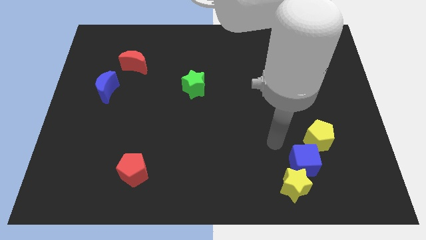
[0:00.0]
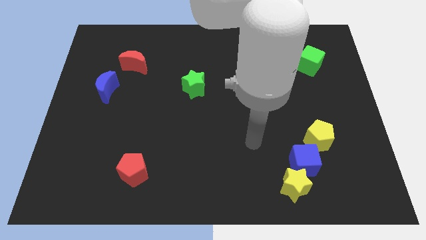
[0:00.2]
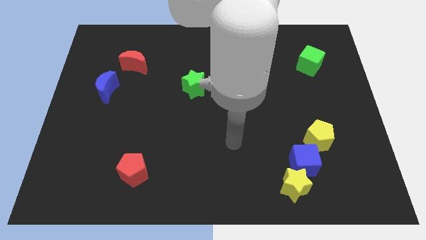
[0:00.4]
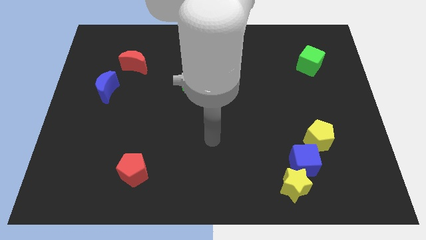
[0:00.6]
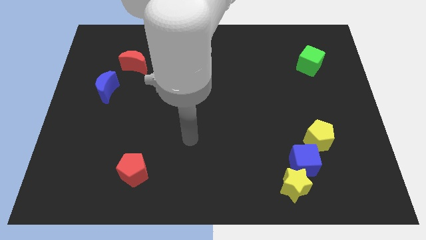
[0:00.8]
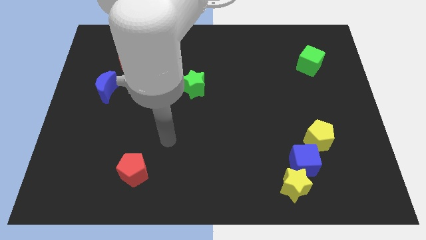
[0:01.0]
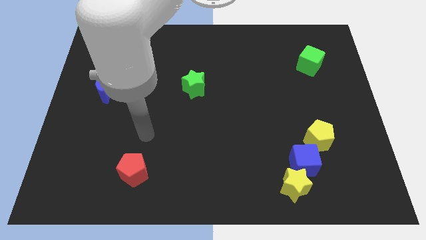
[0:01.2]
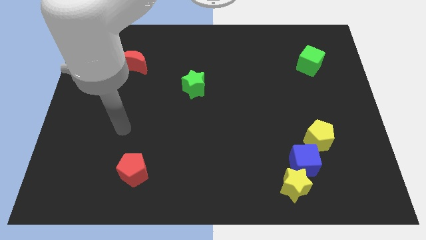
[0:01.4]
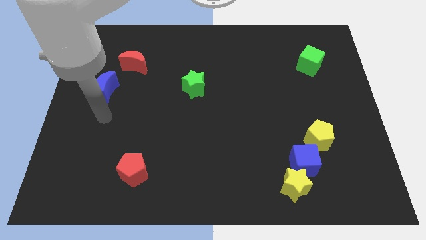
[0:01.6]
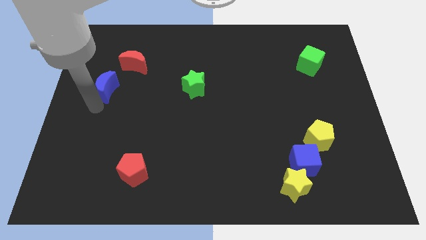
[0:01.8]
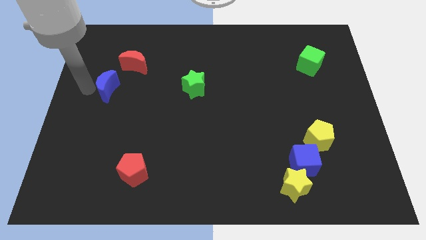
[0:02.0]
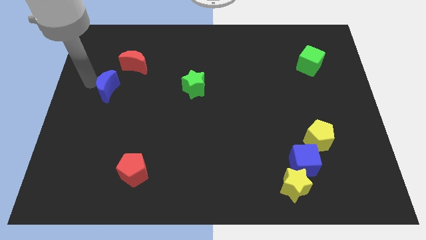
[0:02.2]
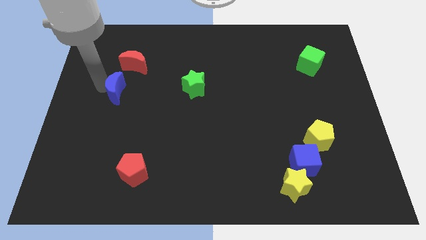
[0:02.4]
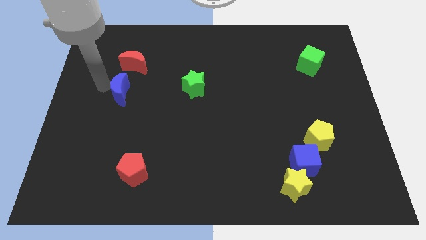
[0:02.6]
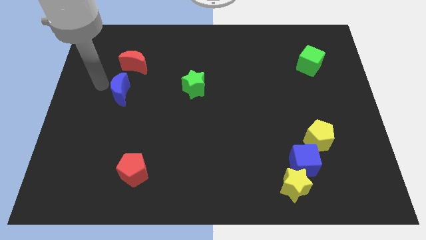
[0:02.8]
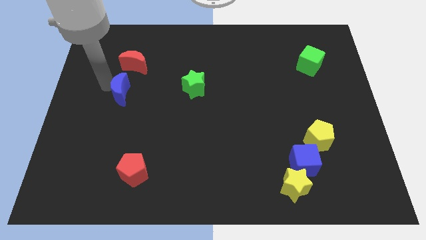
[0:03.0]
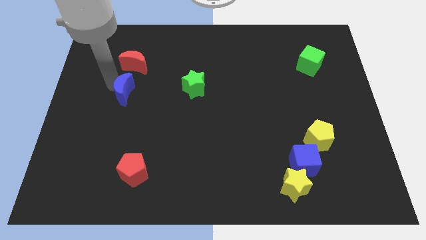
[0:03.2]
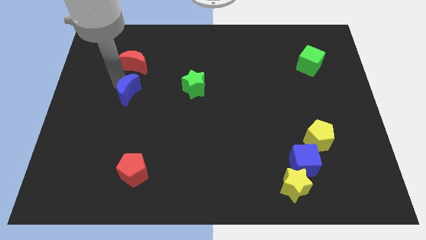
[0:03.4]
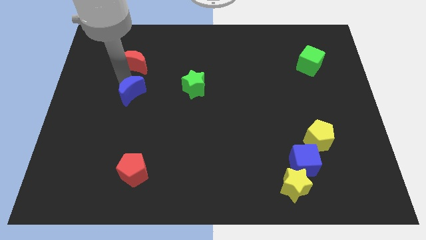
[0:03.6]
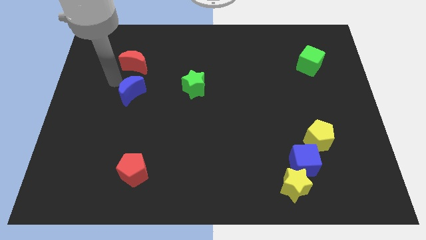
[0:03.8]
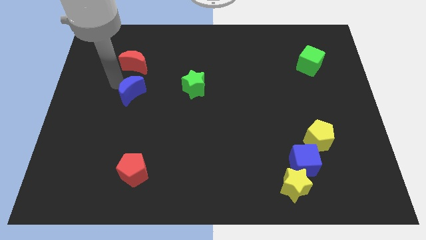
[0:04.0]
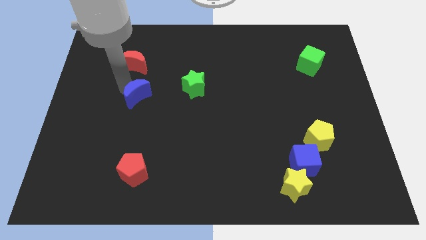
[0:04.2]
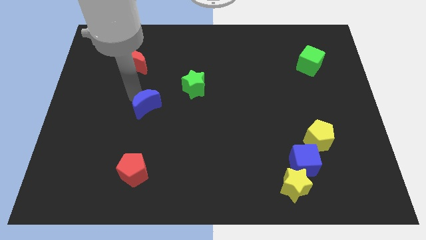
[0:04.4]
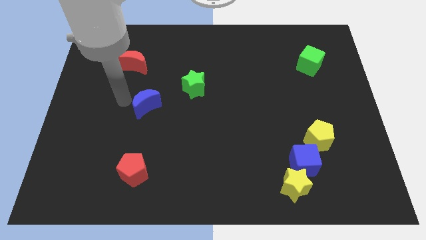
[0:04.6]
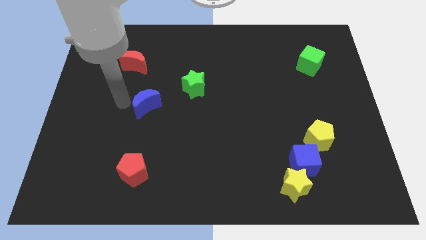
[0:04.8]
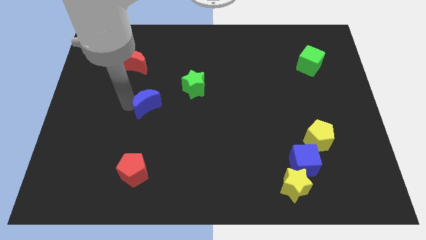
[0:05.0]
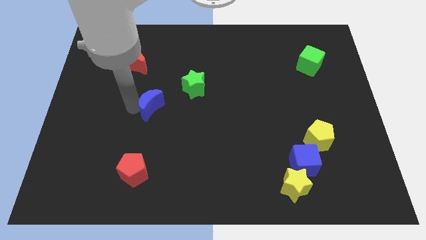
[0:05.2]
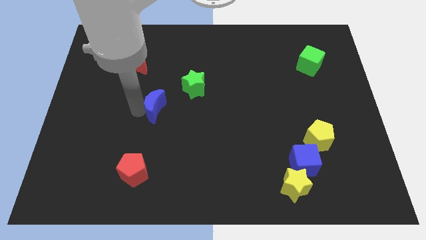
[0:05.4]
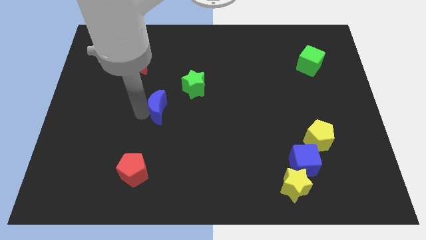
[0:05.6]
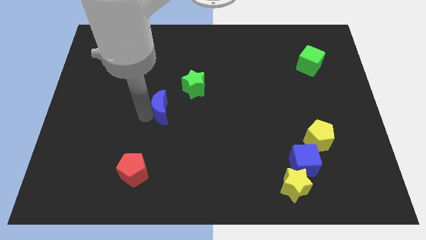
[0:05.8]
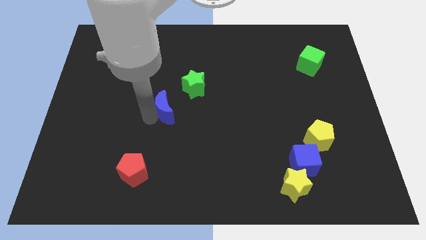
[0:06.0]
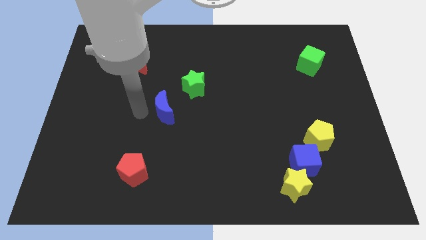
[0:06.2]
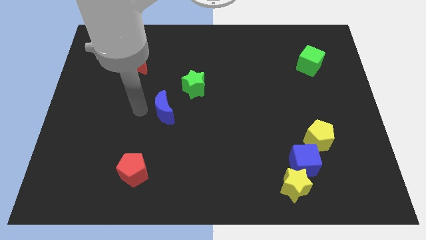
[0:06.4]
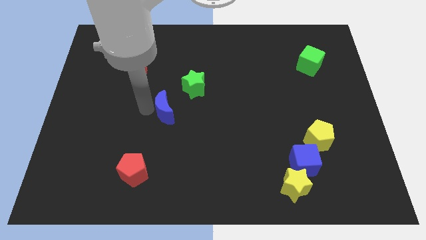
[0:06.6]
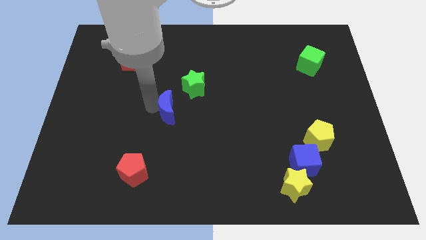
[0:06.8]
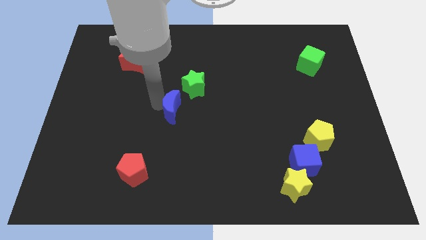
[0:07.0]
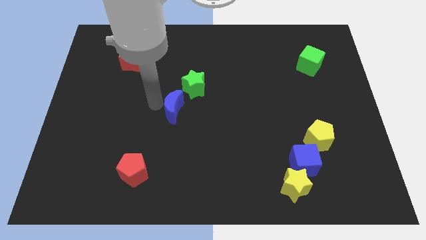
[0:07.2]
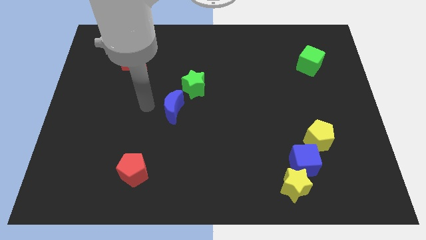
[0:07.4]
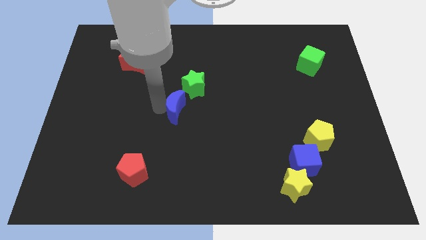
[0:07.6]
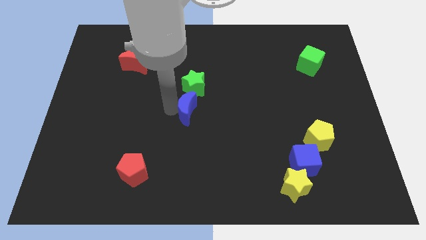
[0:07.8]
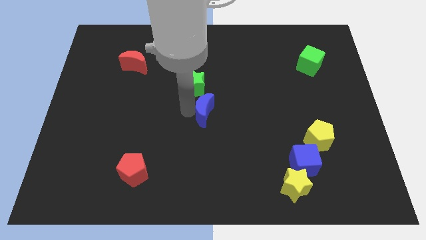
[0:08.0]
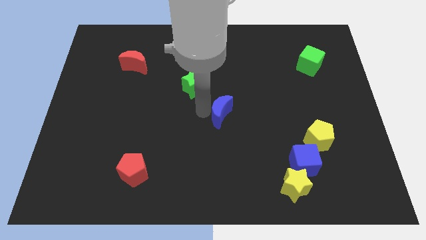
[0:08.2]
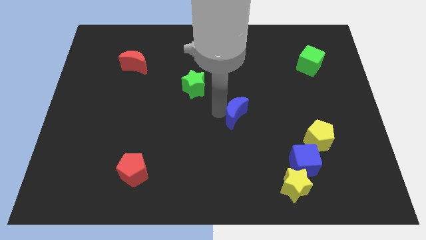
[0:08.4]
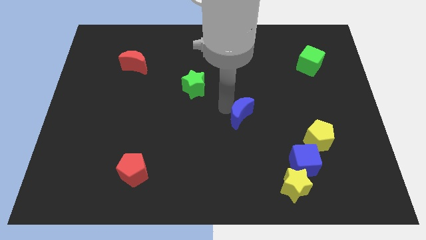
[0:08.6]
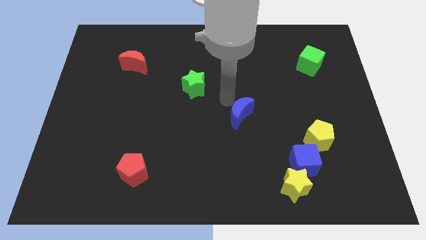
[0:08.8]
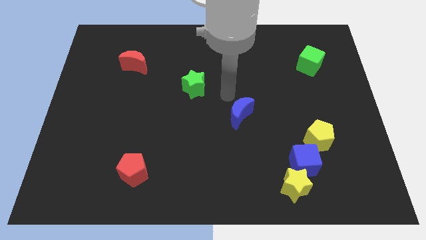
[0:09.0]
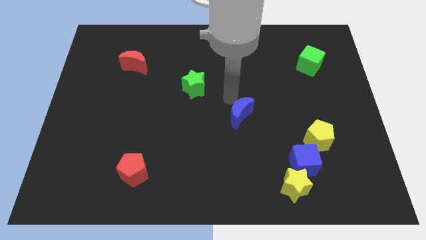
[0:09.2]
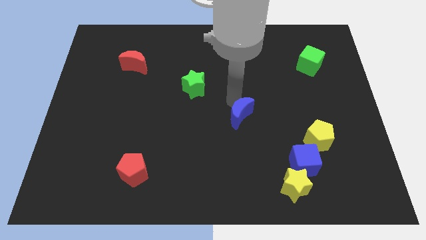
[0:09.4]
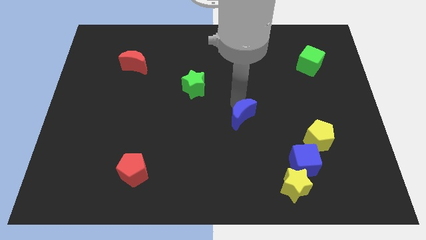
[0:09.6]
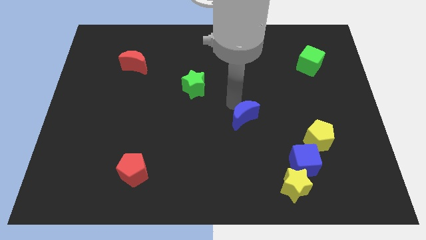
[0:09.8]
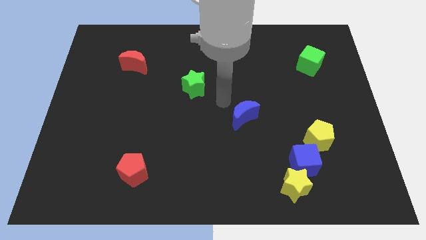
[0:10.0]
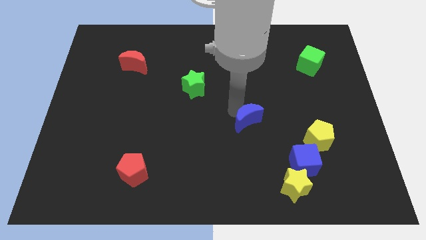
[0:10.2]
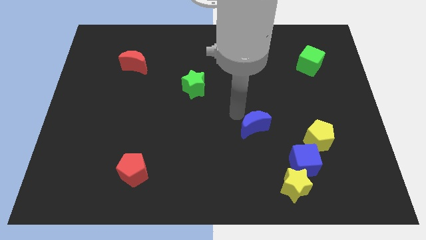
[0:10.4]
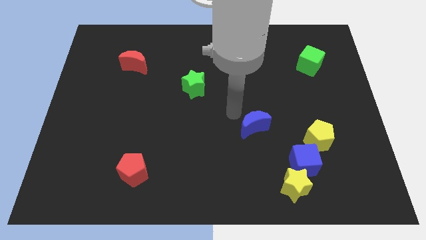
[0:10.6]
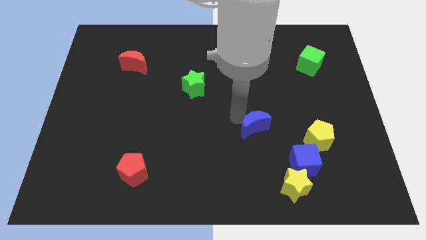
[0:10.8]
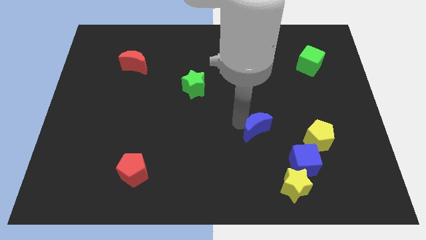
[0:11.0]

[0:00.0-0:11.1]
put the blue moon to the top left side of the blue cube

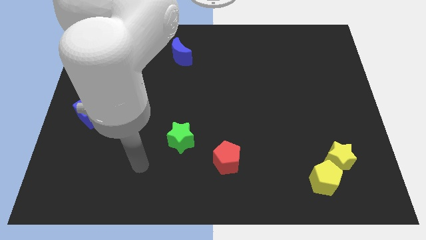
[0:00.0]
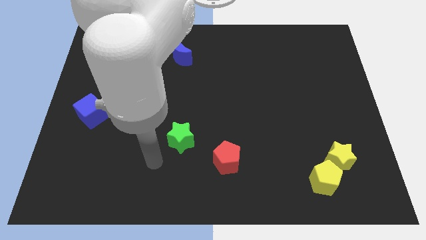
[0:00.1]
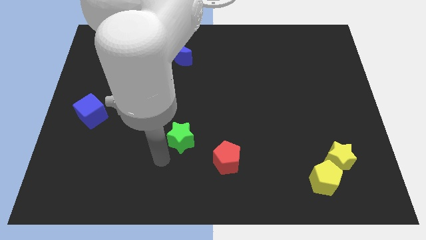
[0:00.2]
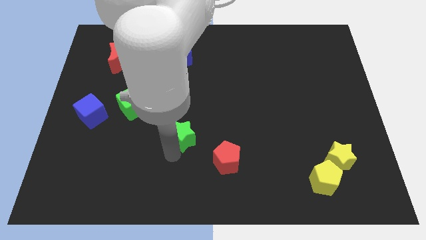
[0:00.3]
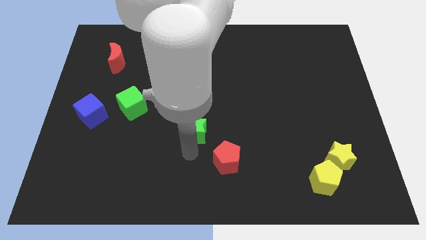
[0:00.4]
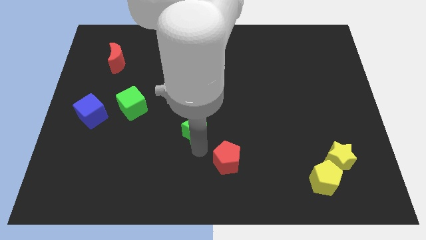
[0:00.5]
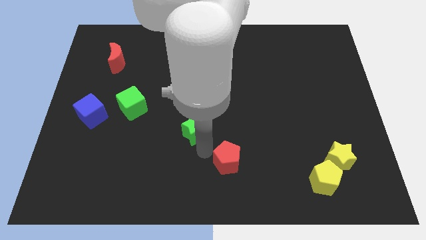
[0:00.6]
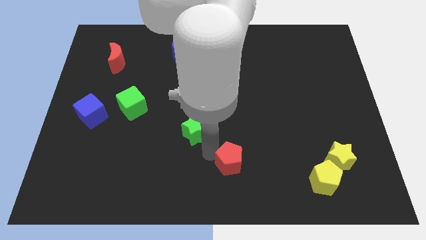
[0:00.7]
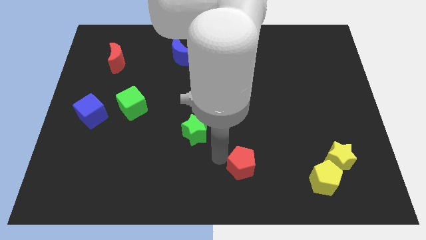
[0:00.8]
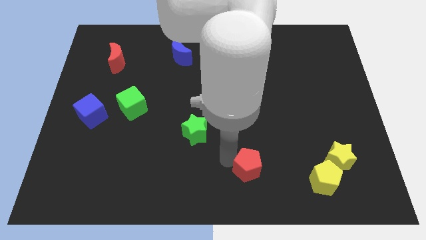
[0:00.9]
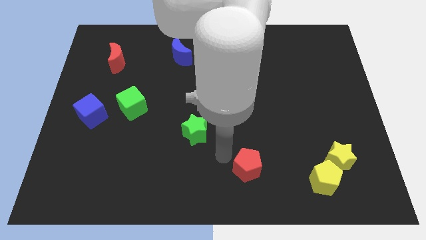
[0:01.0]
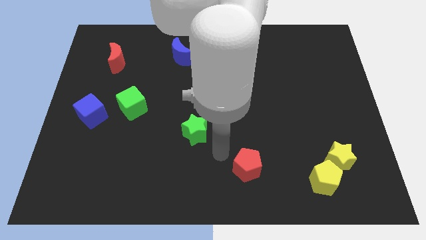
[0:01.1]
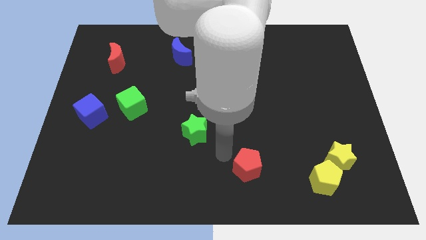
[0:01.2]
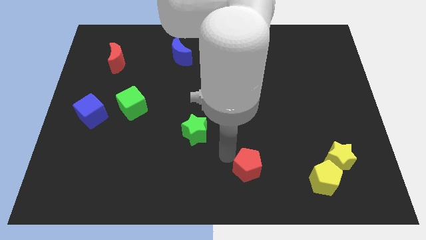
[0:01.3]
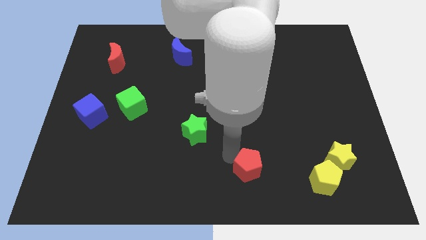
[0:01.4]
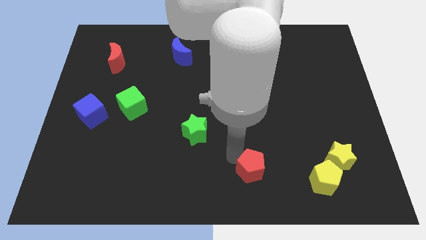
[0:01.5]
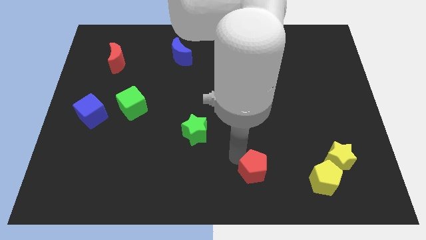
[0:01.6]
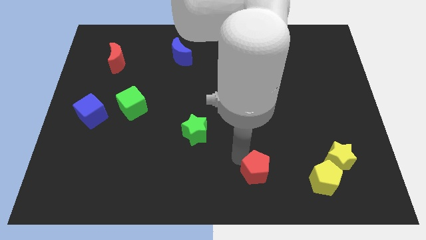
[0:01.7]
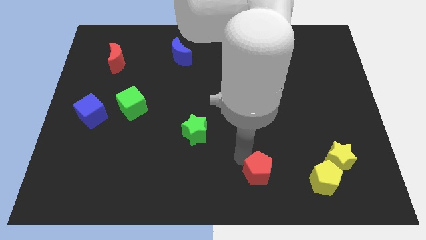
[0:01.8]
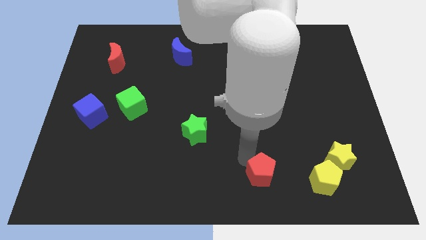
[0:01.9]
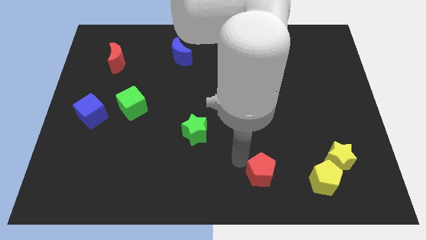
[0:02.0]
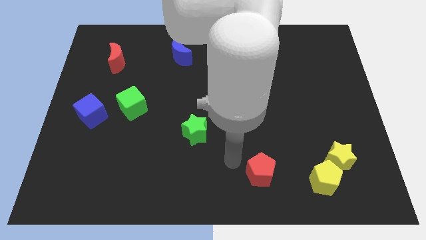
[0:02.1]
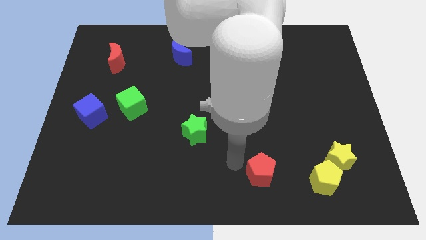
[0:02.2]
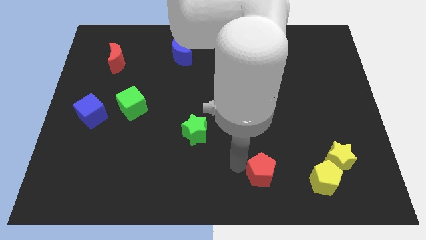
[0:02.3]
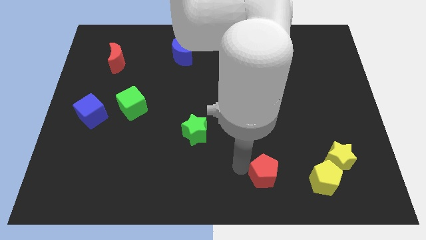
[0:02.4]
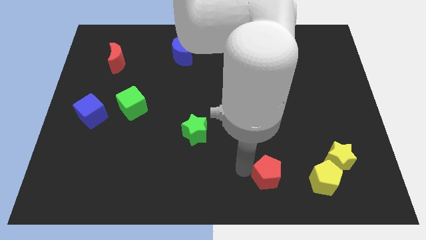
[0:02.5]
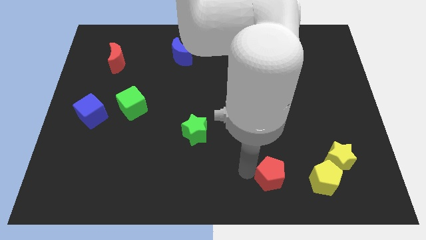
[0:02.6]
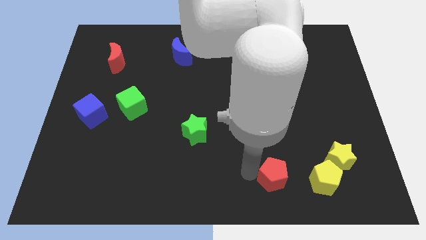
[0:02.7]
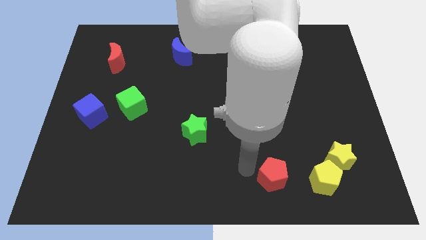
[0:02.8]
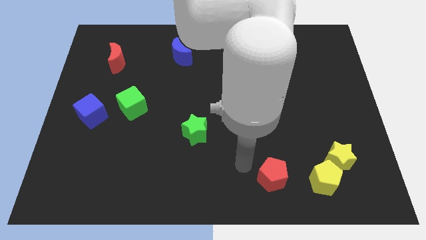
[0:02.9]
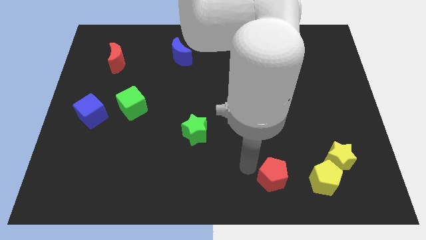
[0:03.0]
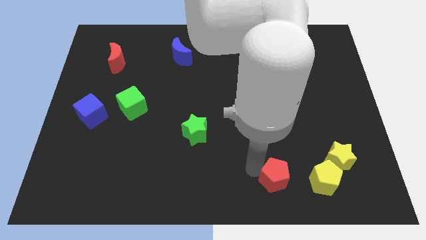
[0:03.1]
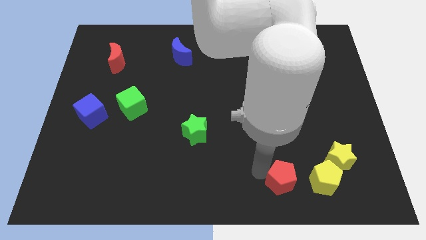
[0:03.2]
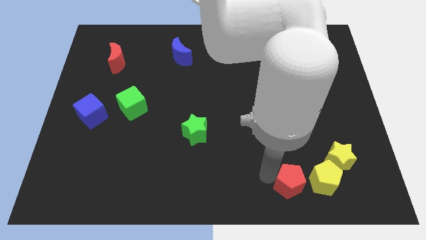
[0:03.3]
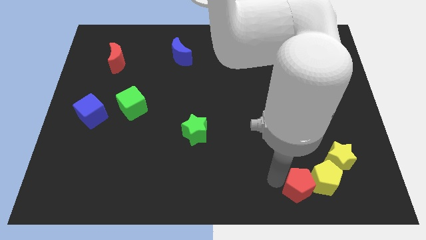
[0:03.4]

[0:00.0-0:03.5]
slide the red pentagon diagonally down and to the left of the yellow star
